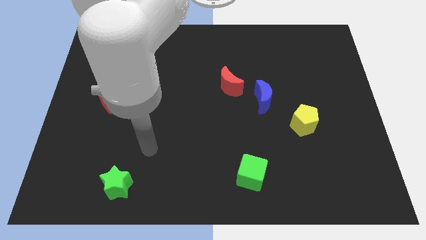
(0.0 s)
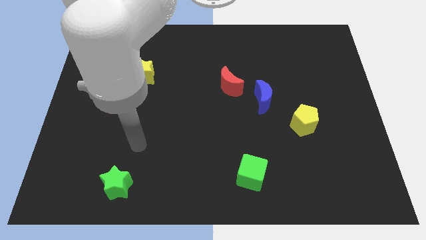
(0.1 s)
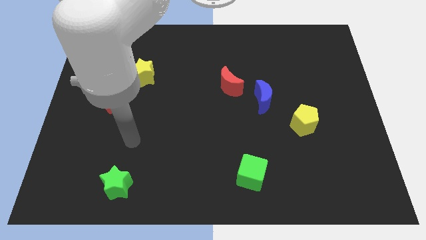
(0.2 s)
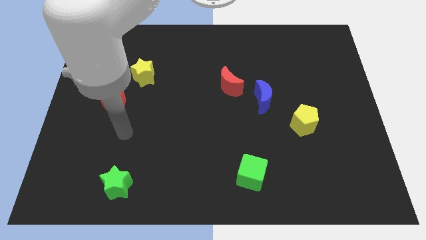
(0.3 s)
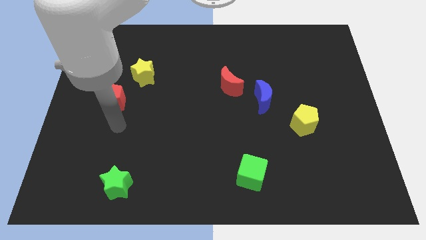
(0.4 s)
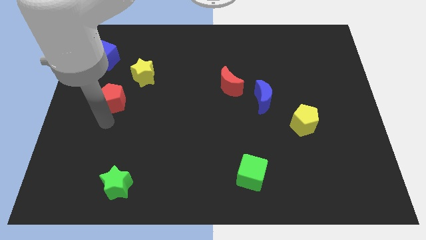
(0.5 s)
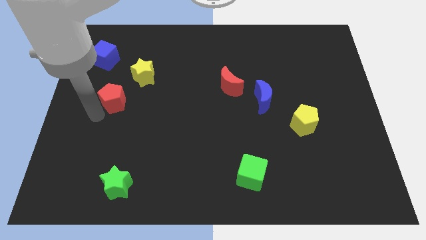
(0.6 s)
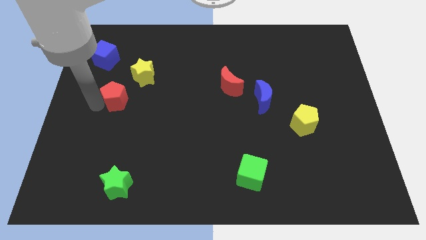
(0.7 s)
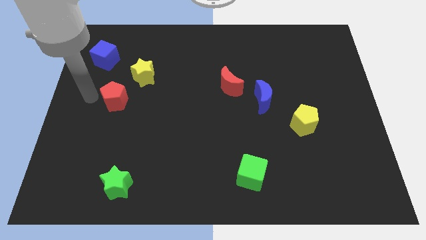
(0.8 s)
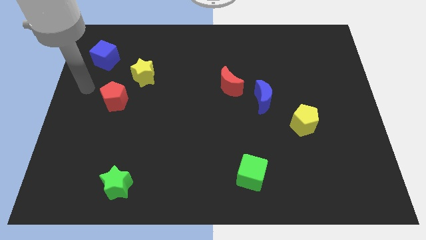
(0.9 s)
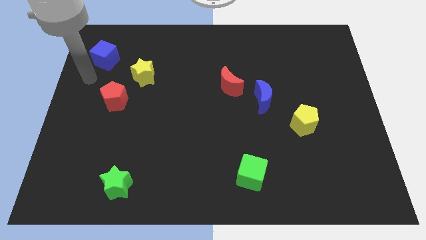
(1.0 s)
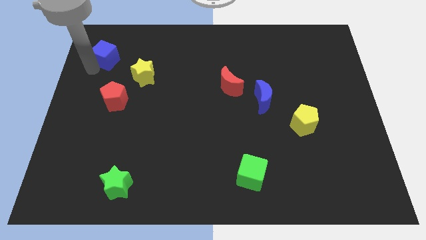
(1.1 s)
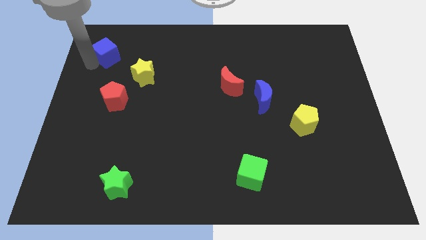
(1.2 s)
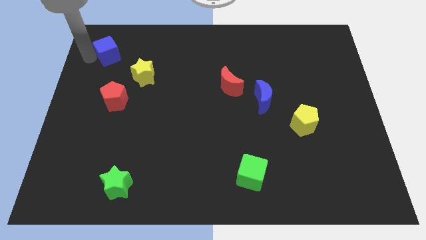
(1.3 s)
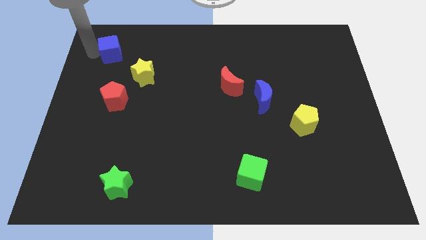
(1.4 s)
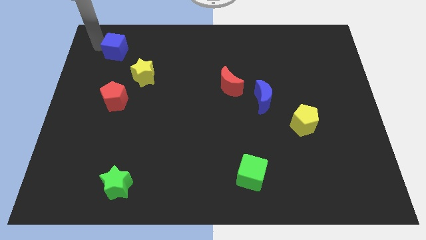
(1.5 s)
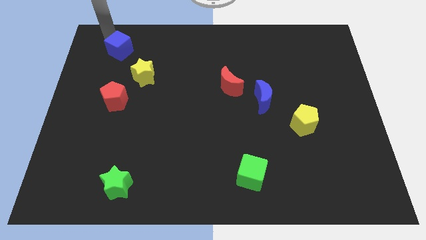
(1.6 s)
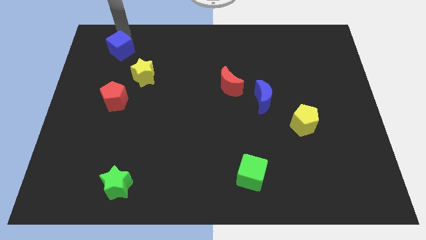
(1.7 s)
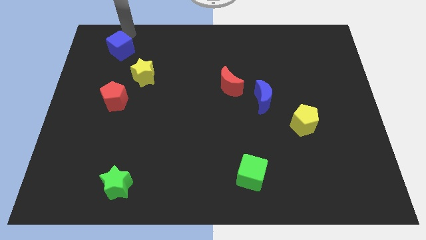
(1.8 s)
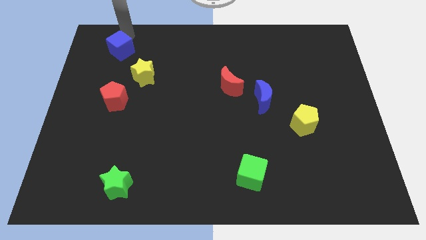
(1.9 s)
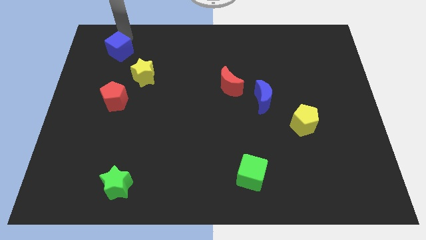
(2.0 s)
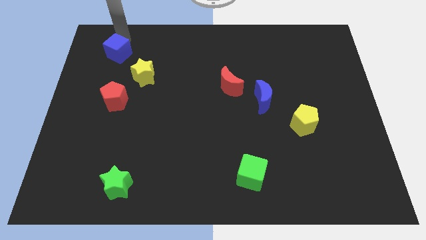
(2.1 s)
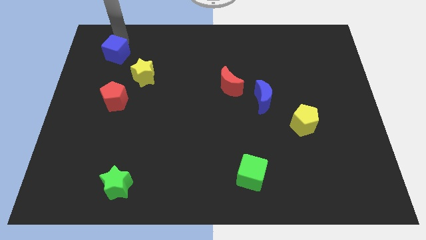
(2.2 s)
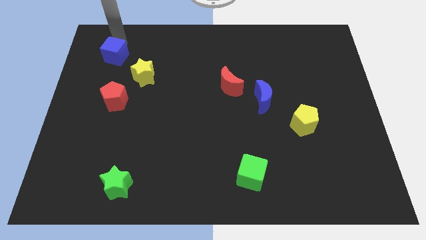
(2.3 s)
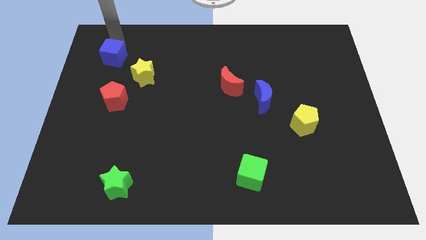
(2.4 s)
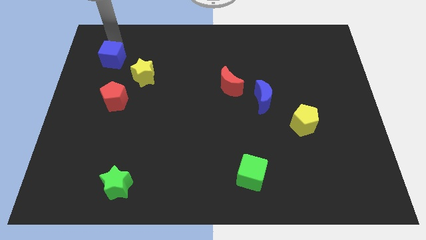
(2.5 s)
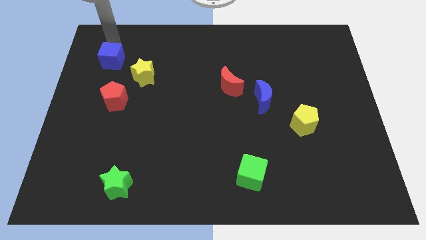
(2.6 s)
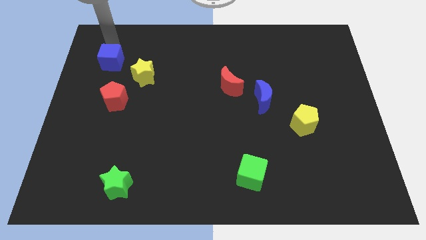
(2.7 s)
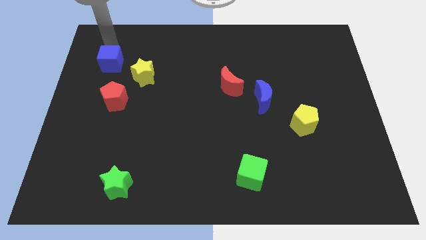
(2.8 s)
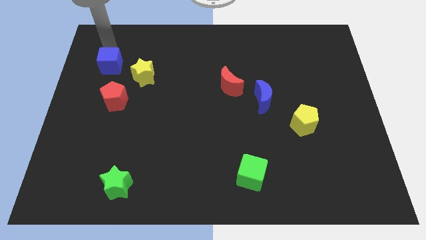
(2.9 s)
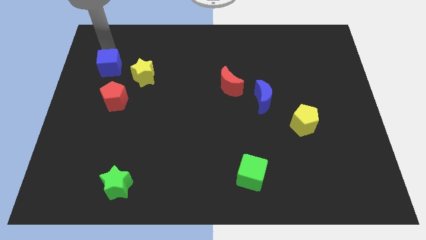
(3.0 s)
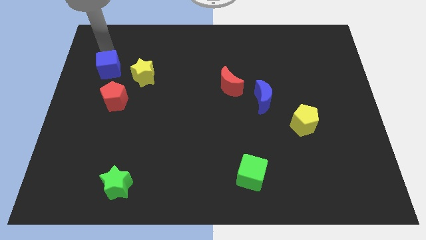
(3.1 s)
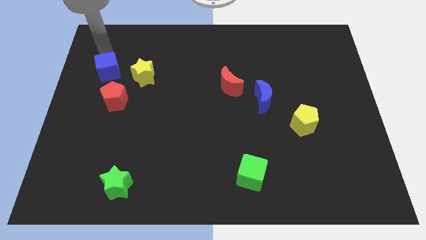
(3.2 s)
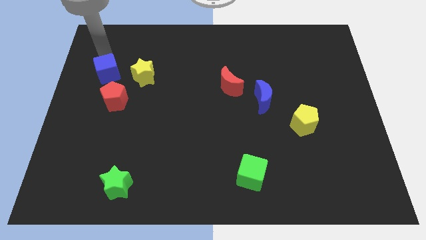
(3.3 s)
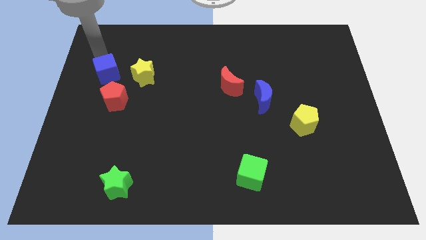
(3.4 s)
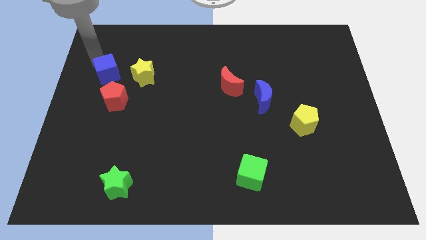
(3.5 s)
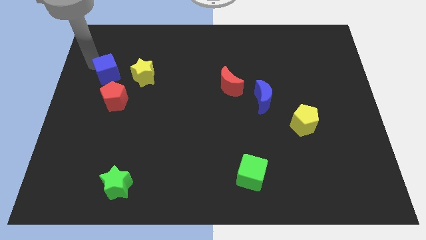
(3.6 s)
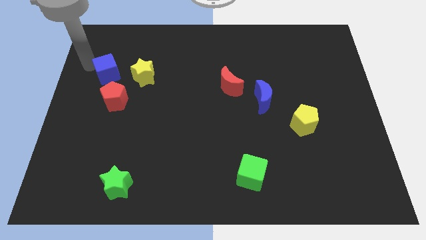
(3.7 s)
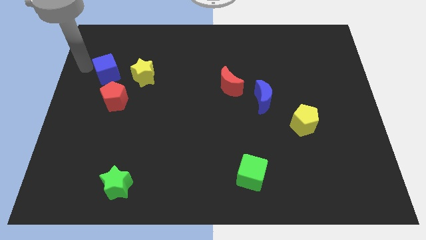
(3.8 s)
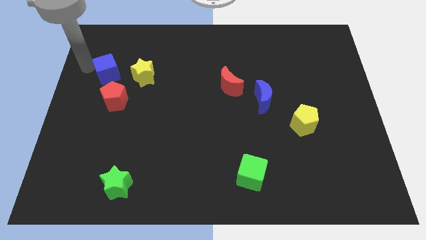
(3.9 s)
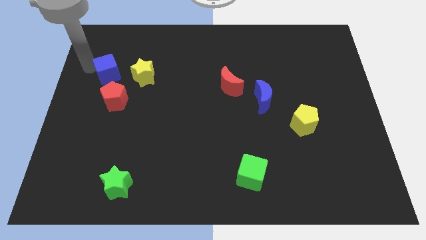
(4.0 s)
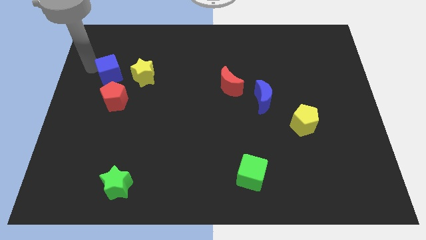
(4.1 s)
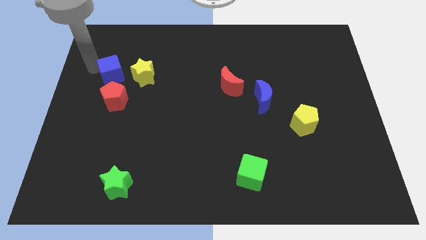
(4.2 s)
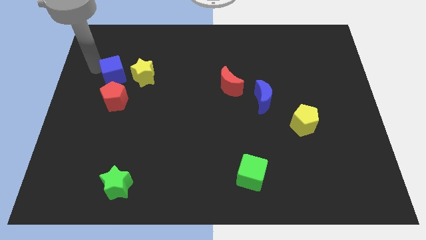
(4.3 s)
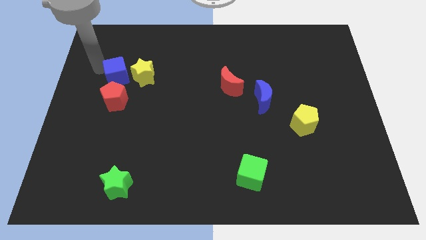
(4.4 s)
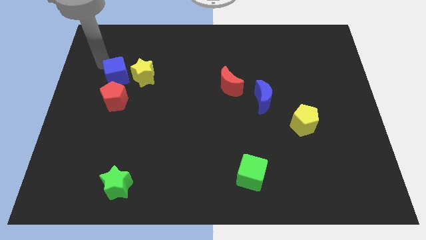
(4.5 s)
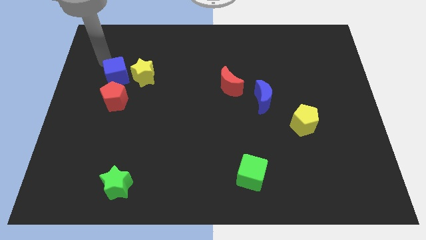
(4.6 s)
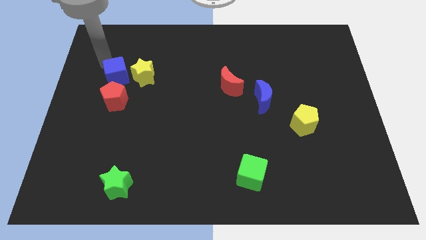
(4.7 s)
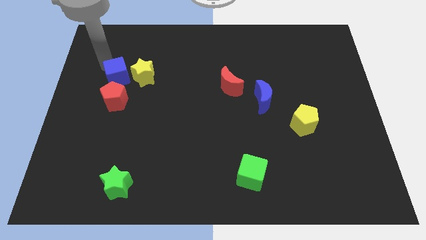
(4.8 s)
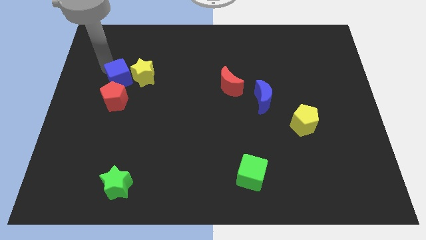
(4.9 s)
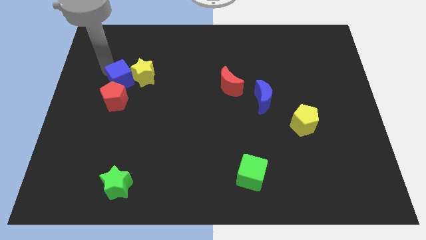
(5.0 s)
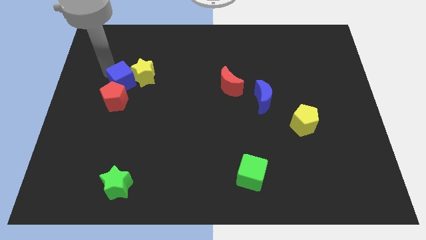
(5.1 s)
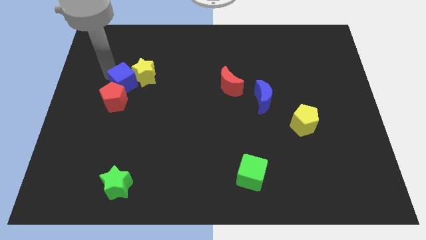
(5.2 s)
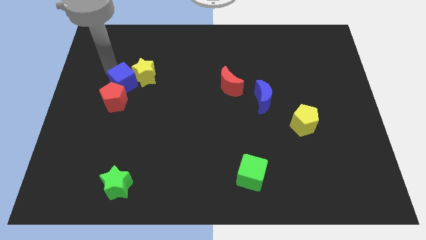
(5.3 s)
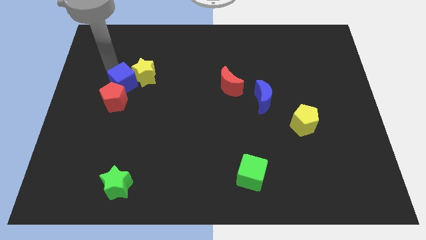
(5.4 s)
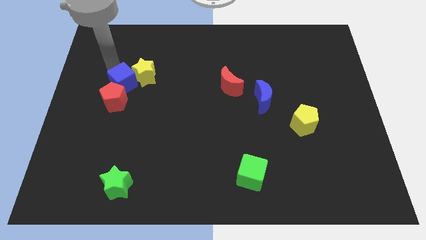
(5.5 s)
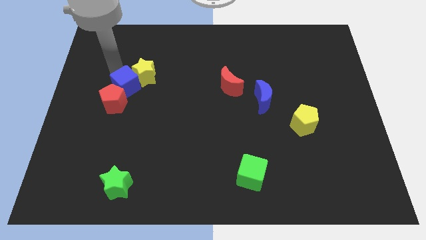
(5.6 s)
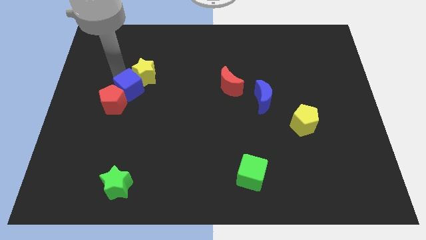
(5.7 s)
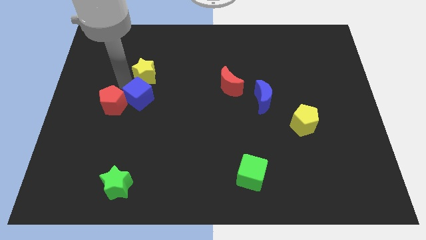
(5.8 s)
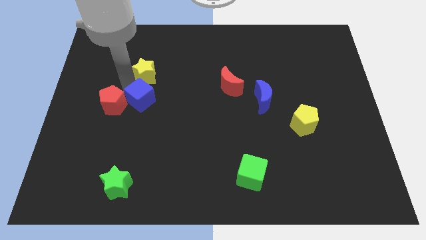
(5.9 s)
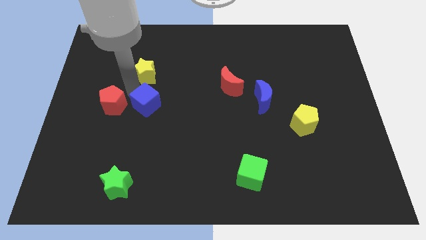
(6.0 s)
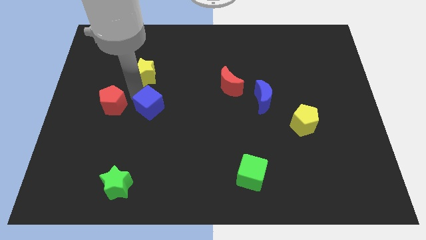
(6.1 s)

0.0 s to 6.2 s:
push the blue cube down and right diagonally

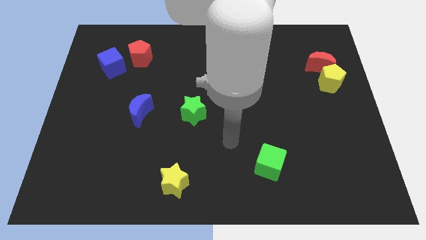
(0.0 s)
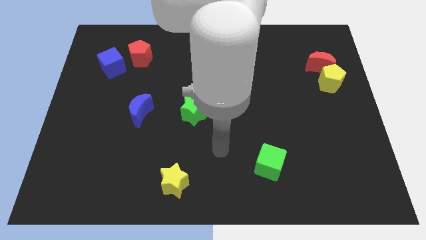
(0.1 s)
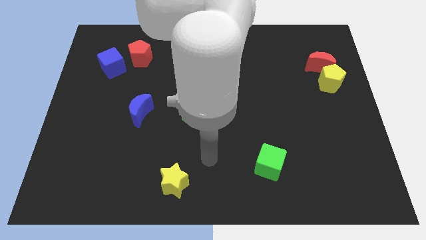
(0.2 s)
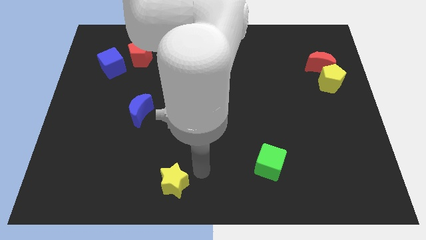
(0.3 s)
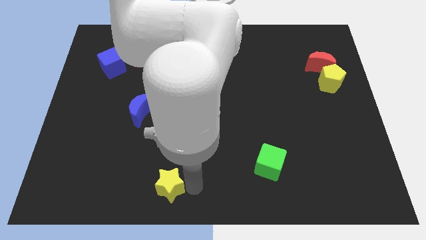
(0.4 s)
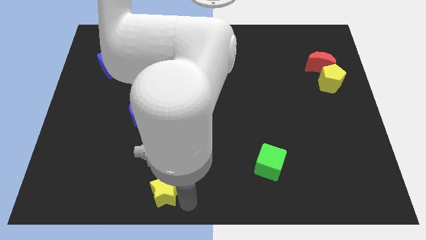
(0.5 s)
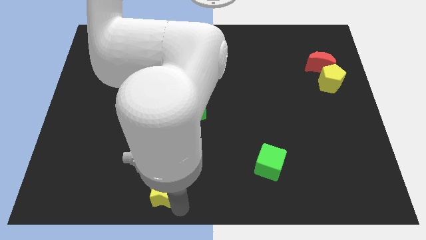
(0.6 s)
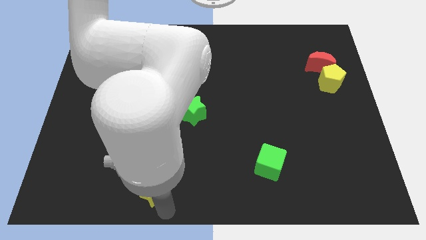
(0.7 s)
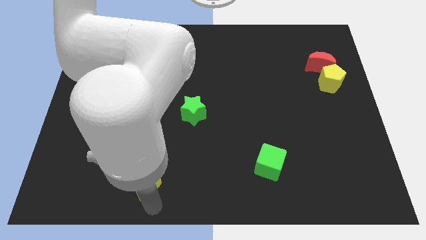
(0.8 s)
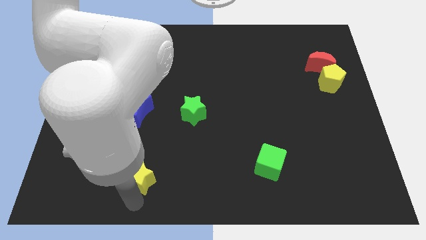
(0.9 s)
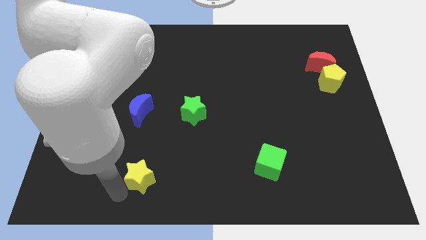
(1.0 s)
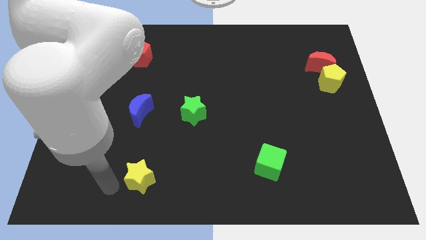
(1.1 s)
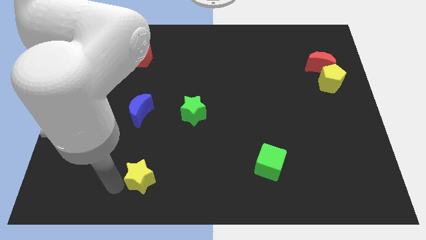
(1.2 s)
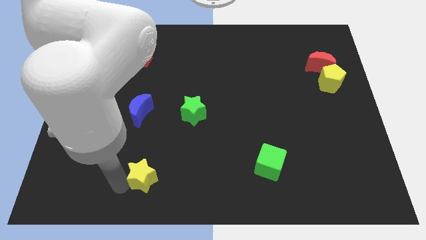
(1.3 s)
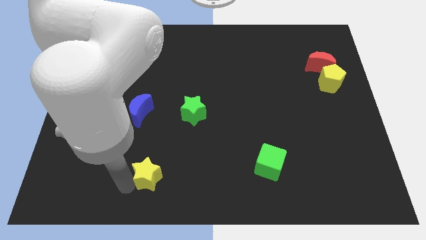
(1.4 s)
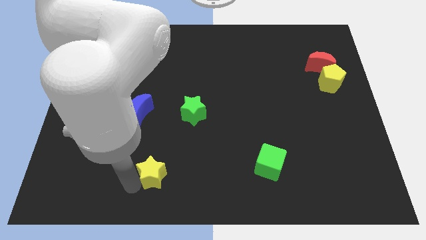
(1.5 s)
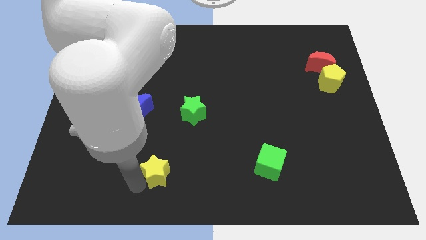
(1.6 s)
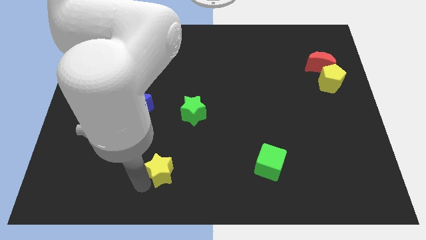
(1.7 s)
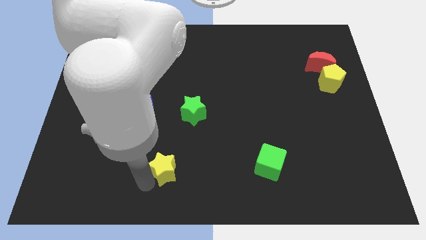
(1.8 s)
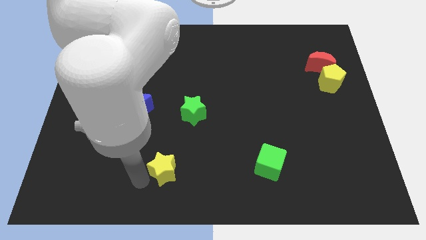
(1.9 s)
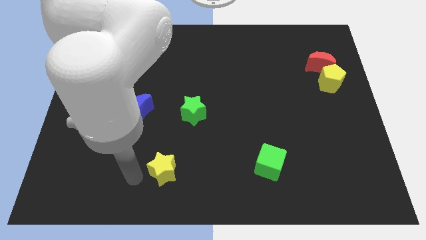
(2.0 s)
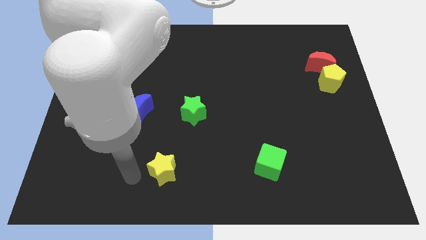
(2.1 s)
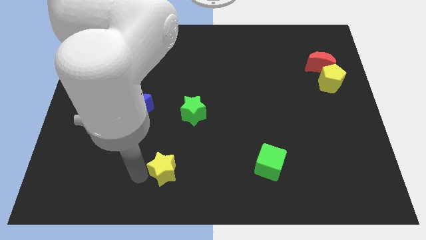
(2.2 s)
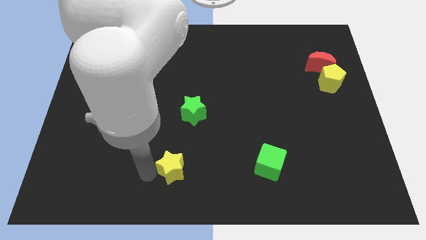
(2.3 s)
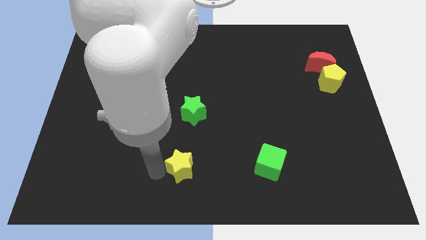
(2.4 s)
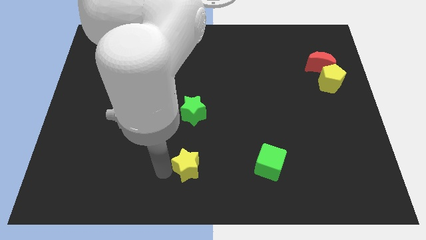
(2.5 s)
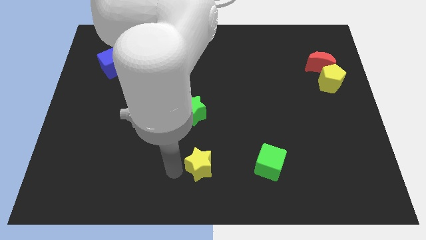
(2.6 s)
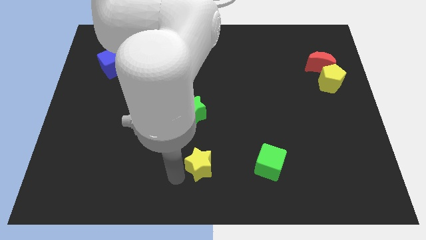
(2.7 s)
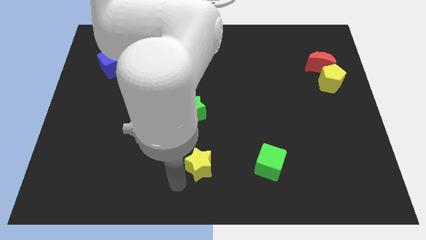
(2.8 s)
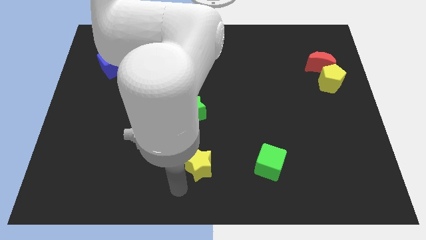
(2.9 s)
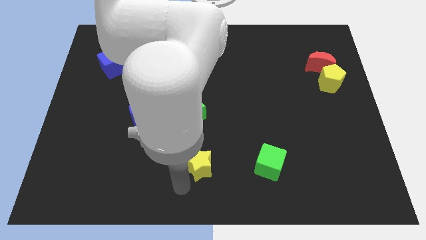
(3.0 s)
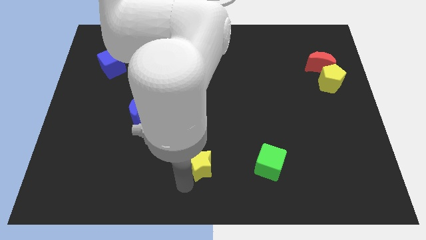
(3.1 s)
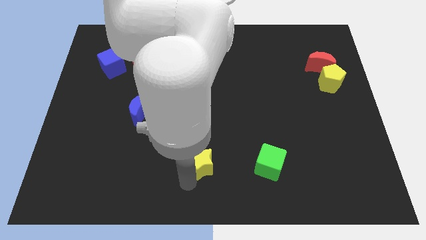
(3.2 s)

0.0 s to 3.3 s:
push the yellow star up and right a little
